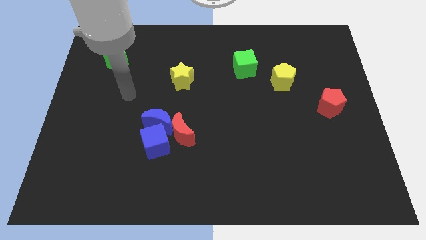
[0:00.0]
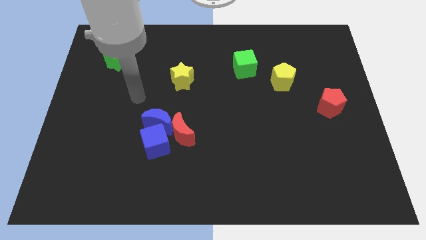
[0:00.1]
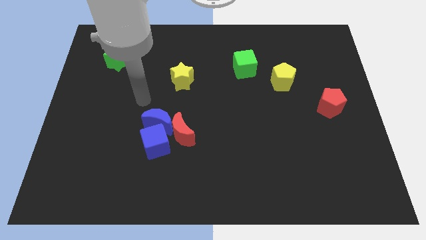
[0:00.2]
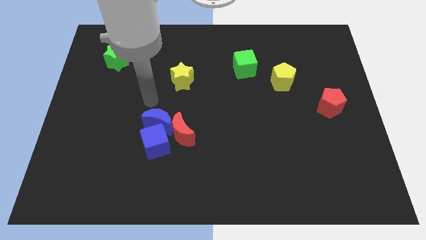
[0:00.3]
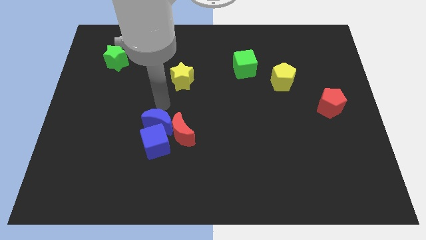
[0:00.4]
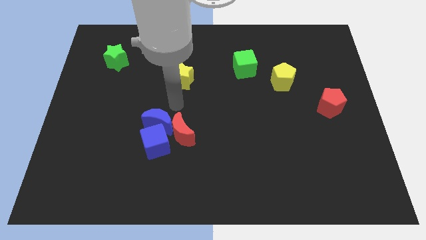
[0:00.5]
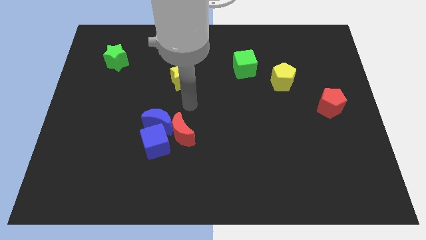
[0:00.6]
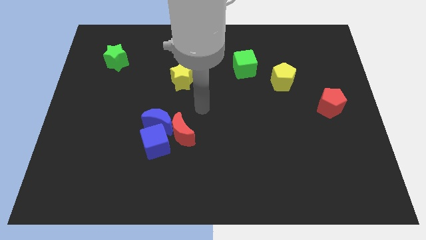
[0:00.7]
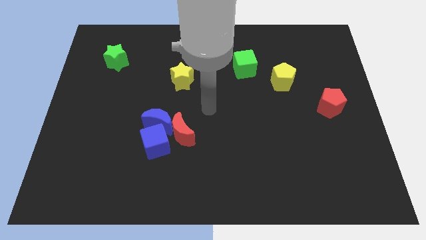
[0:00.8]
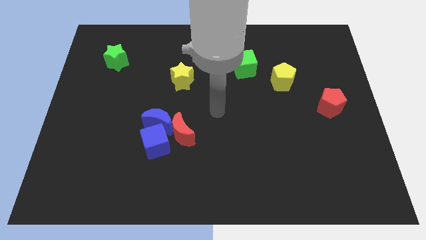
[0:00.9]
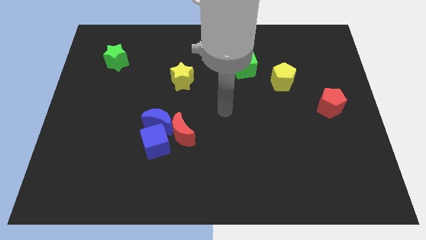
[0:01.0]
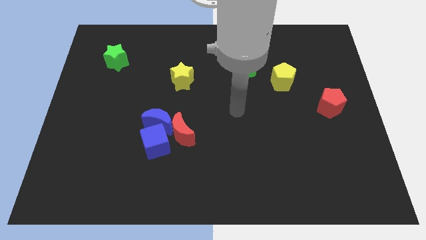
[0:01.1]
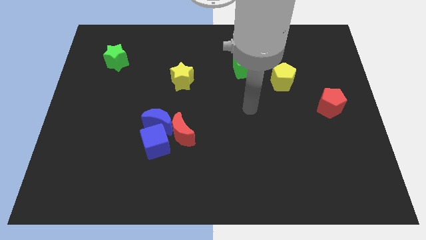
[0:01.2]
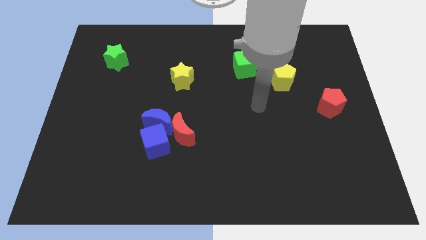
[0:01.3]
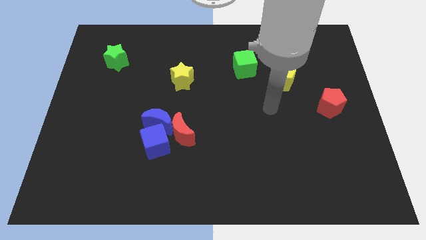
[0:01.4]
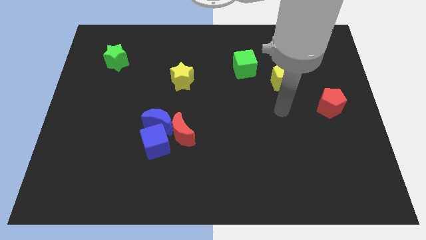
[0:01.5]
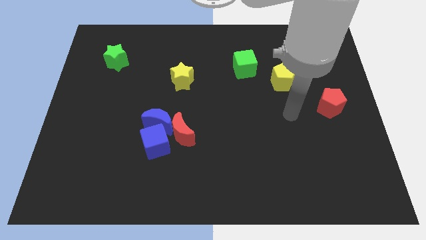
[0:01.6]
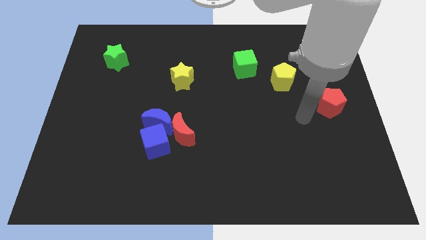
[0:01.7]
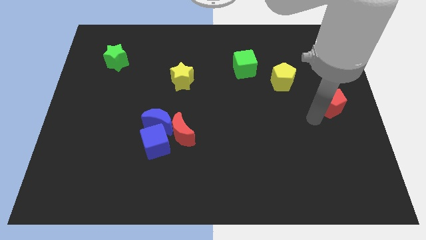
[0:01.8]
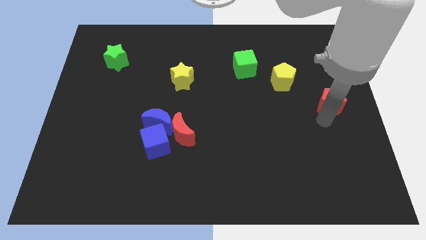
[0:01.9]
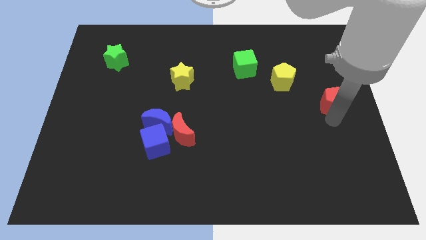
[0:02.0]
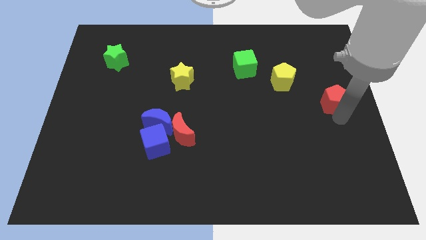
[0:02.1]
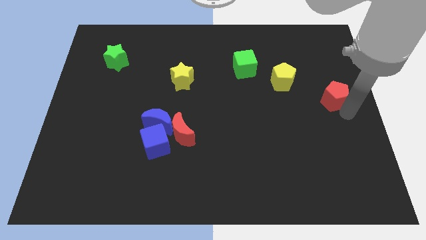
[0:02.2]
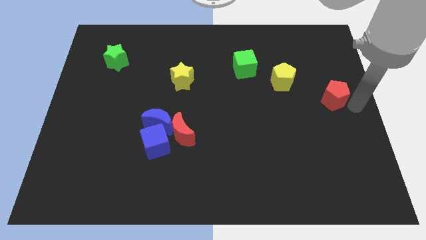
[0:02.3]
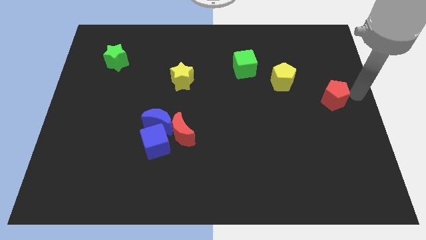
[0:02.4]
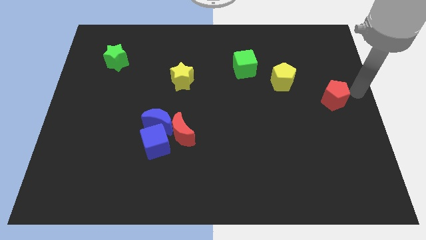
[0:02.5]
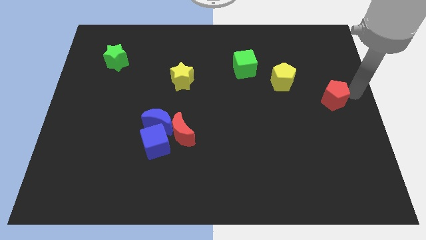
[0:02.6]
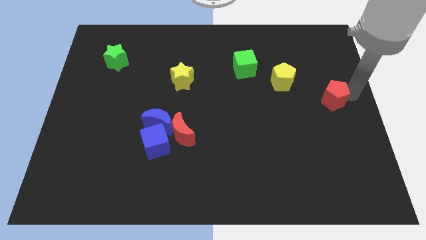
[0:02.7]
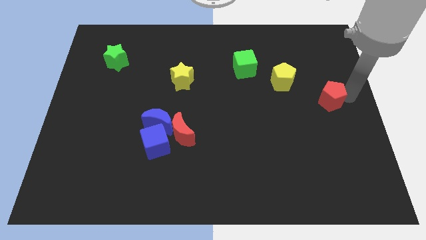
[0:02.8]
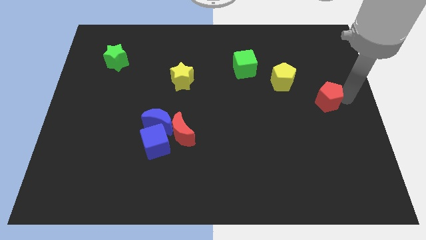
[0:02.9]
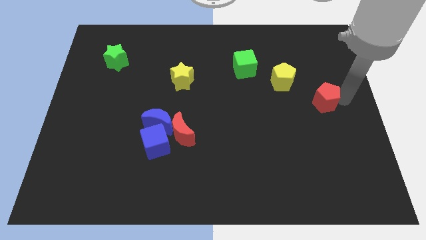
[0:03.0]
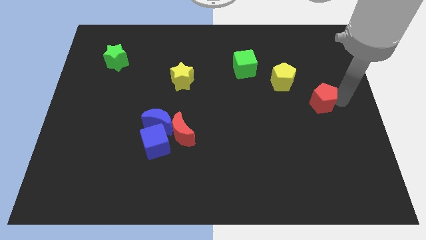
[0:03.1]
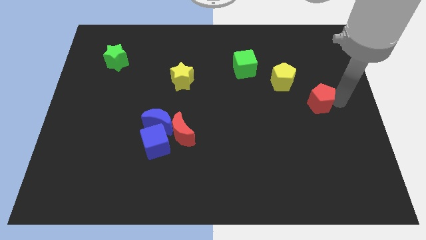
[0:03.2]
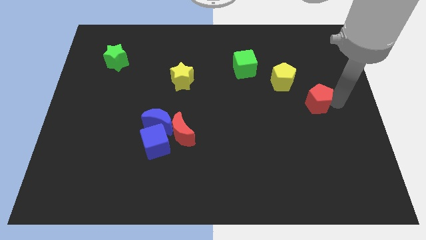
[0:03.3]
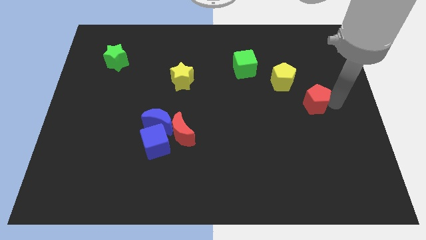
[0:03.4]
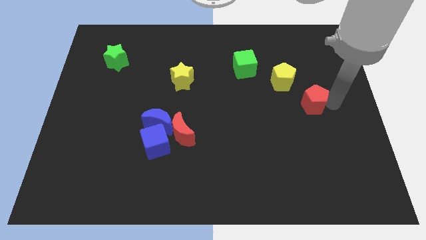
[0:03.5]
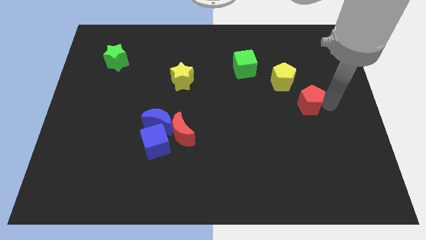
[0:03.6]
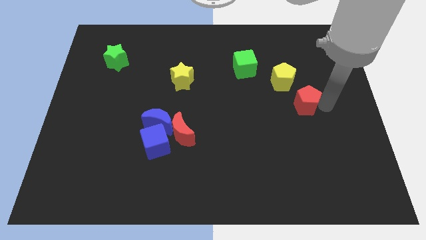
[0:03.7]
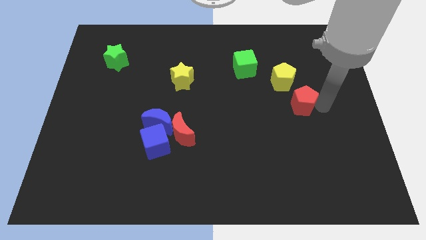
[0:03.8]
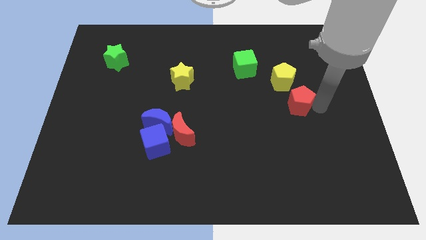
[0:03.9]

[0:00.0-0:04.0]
slide the red pentagon a little to the left

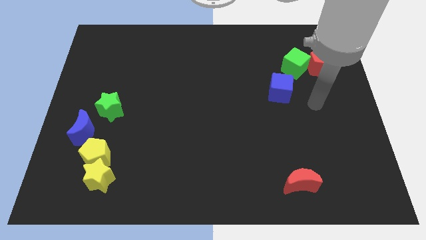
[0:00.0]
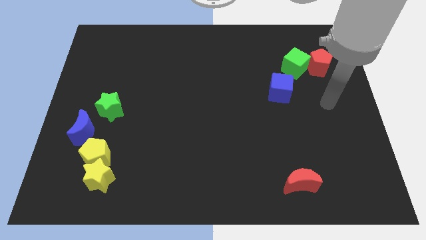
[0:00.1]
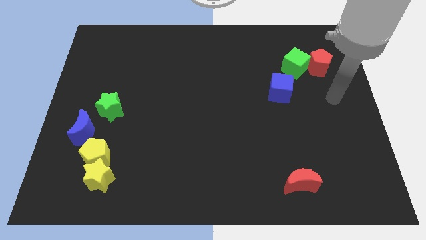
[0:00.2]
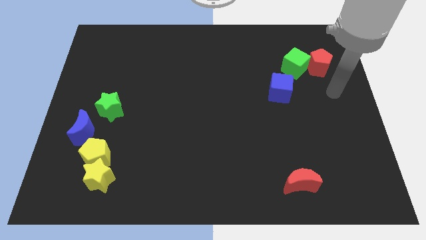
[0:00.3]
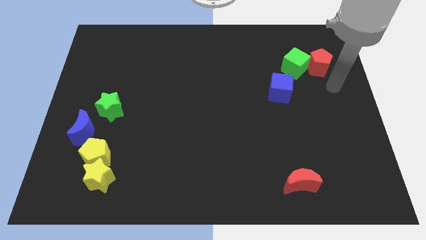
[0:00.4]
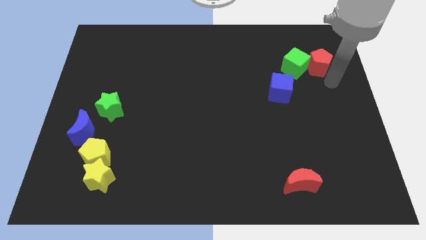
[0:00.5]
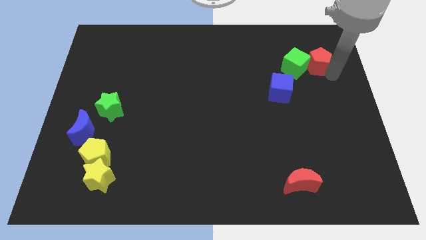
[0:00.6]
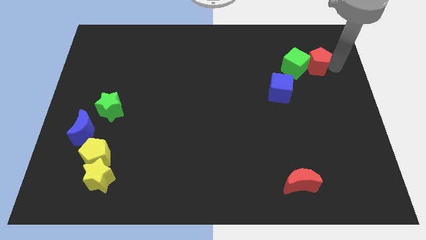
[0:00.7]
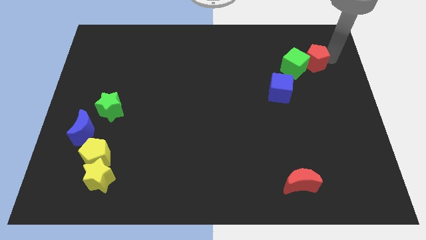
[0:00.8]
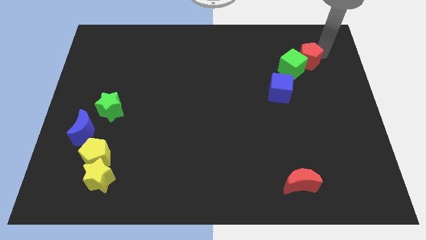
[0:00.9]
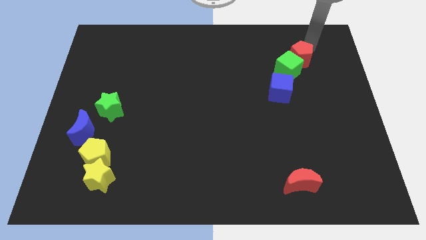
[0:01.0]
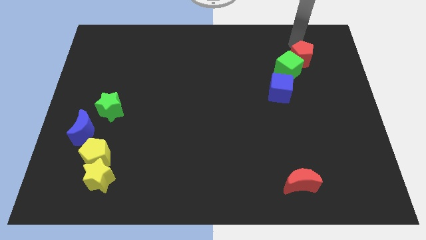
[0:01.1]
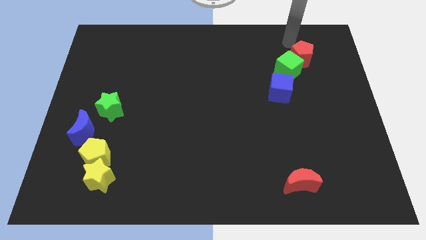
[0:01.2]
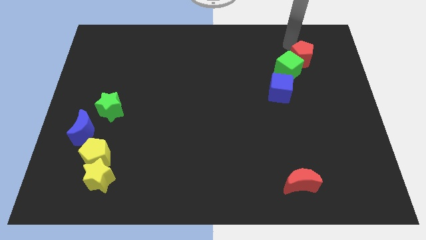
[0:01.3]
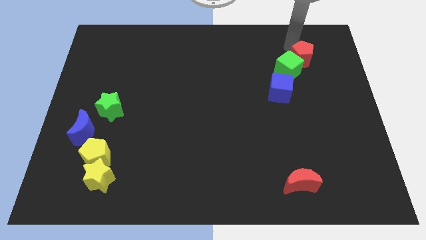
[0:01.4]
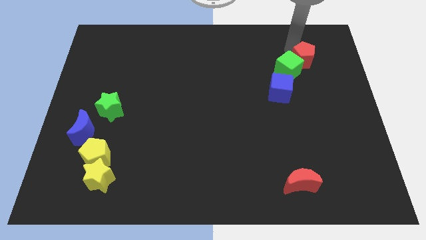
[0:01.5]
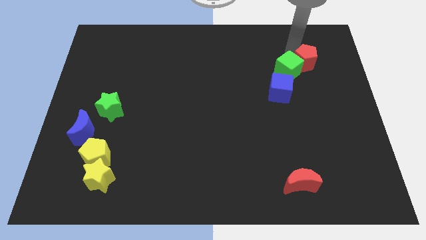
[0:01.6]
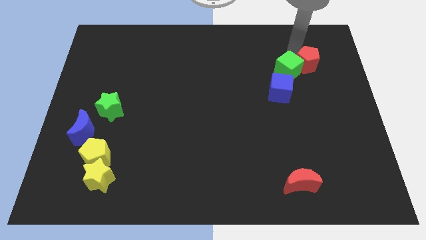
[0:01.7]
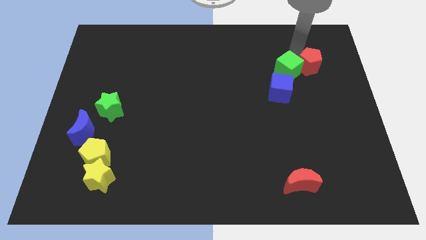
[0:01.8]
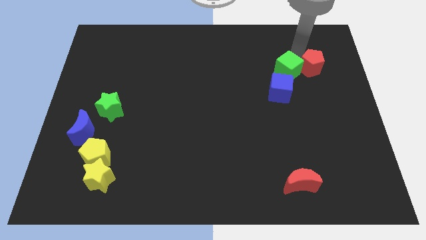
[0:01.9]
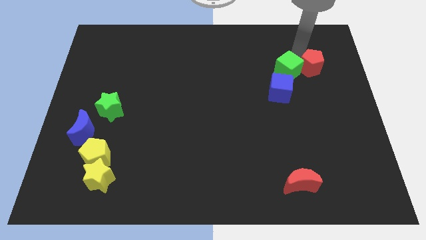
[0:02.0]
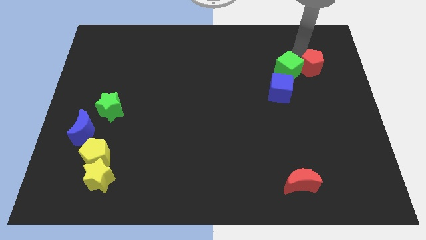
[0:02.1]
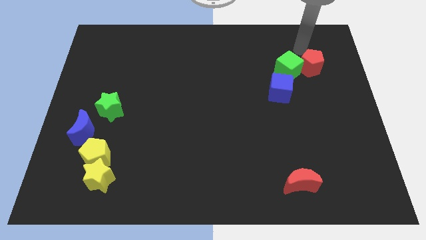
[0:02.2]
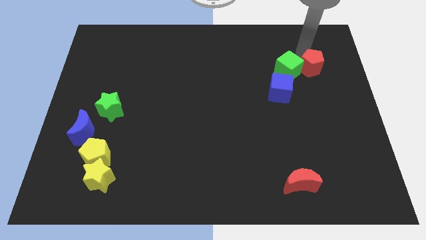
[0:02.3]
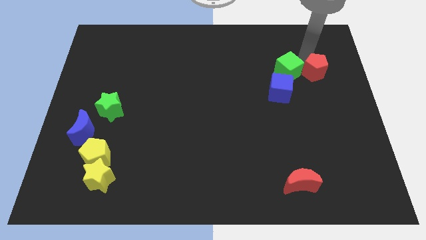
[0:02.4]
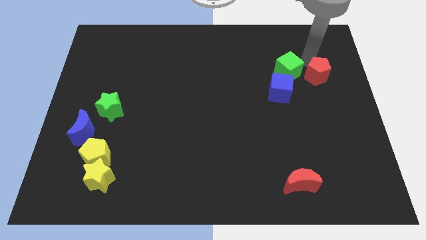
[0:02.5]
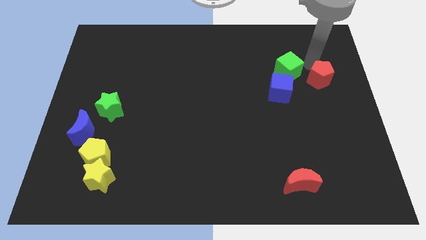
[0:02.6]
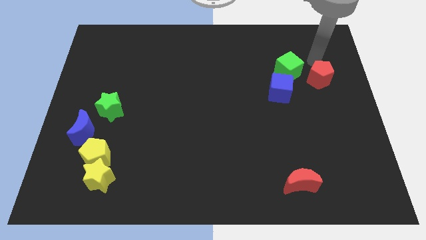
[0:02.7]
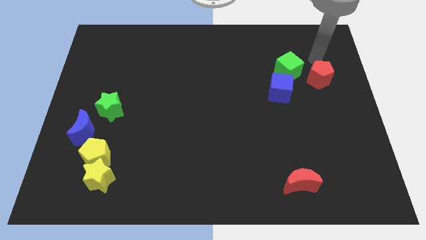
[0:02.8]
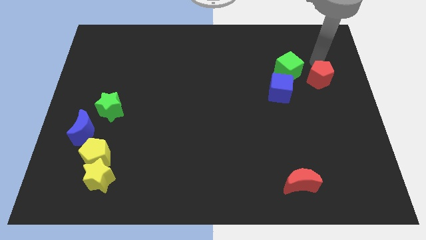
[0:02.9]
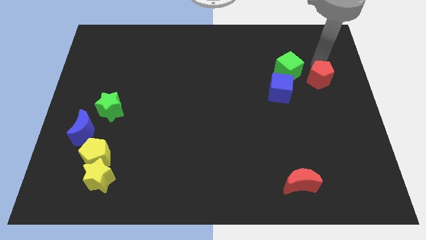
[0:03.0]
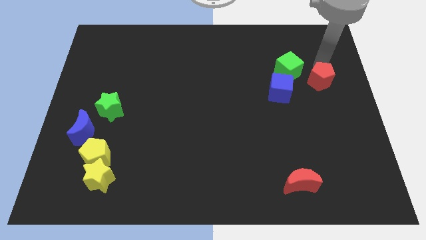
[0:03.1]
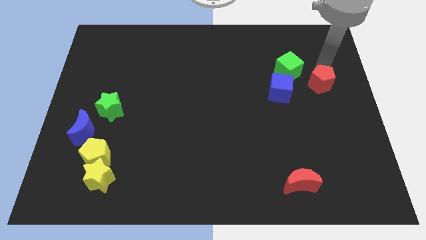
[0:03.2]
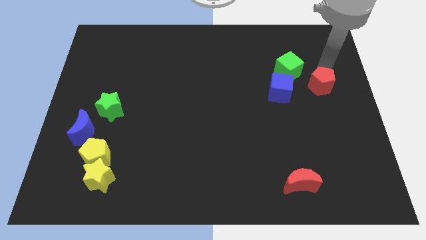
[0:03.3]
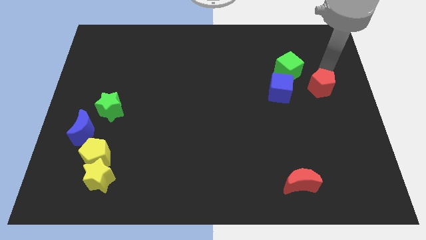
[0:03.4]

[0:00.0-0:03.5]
slide the red pentagon a bit downwards
